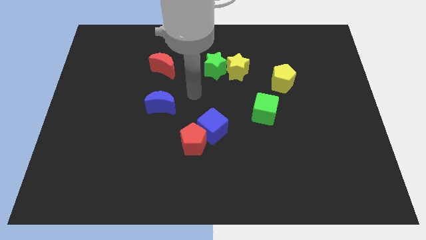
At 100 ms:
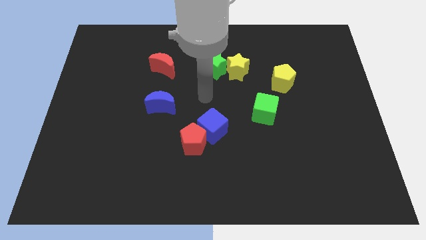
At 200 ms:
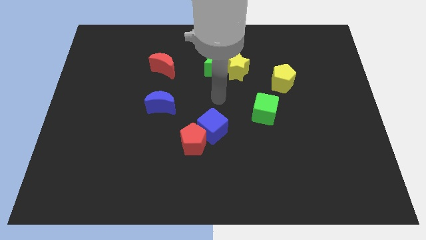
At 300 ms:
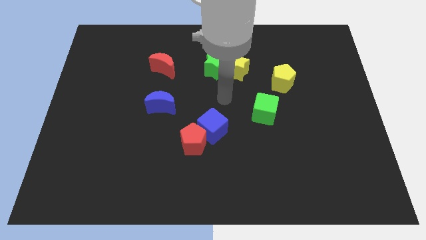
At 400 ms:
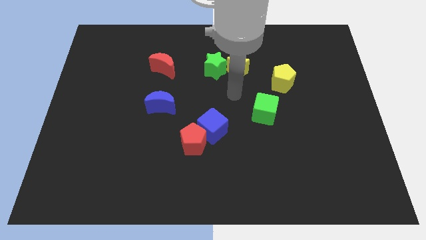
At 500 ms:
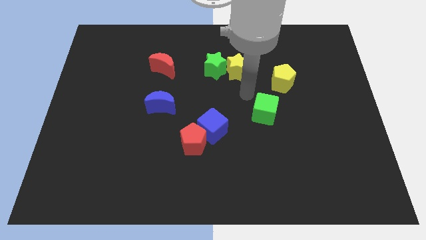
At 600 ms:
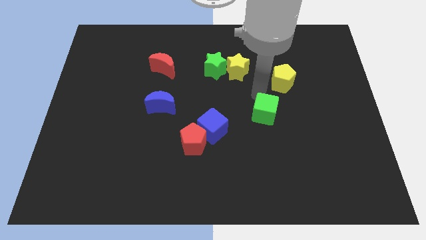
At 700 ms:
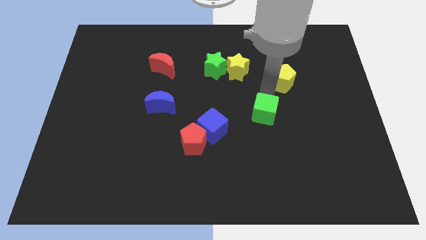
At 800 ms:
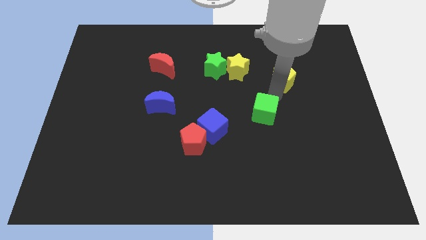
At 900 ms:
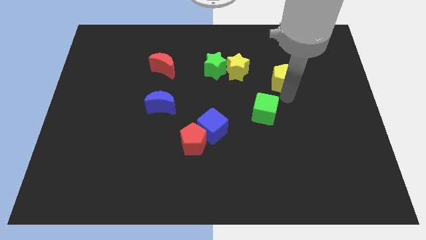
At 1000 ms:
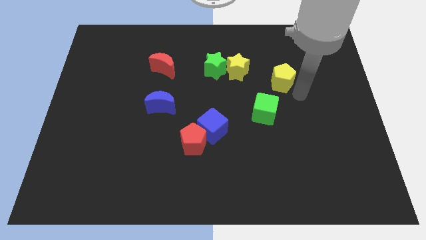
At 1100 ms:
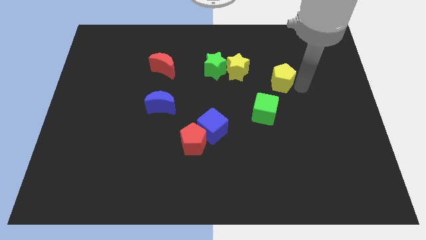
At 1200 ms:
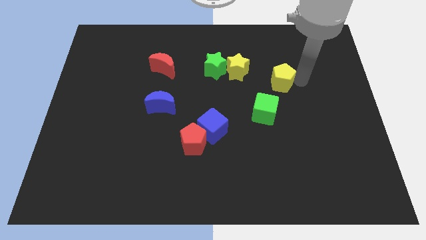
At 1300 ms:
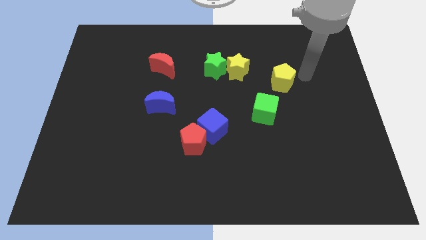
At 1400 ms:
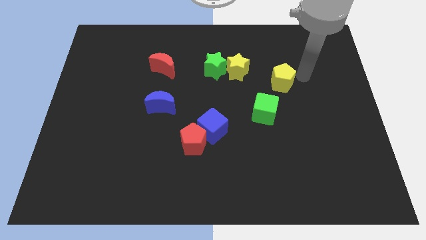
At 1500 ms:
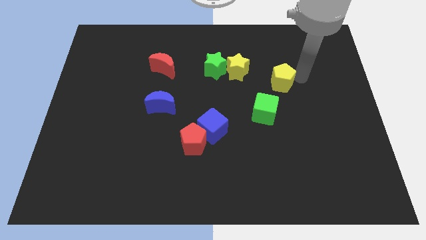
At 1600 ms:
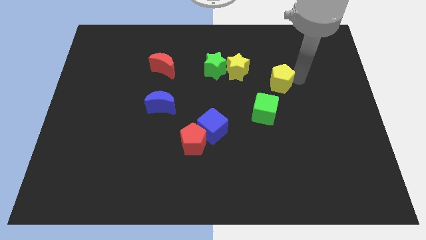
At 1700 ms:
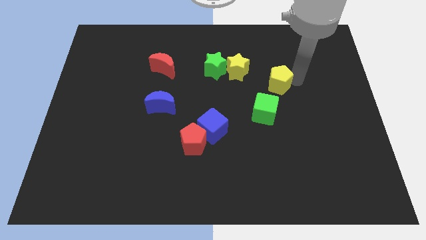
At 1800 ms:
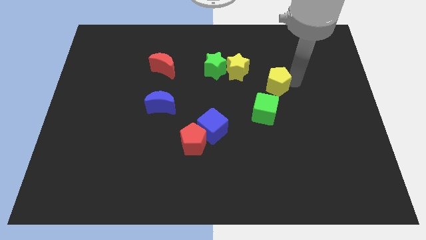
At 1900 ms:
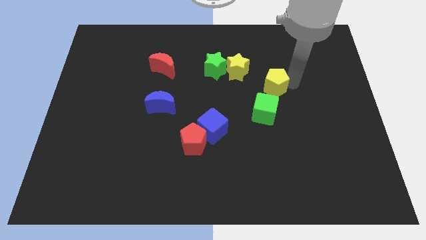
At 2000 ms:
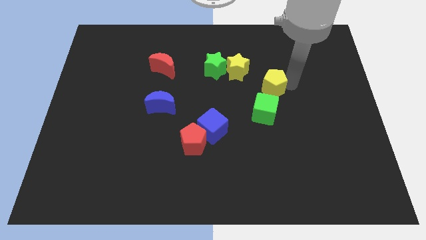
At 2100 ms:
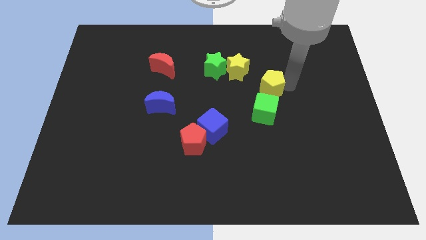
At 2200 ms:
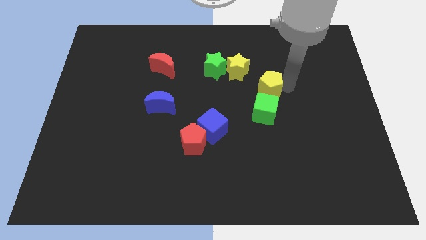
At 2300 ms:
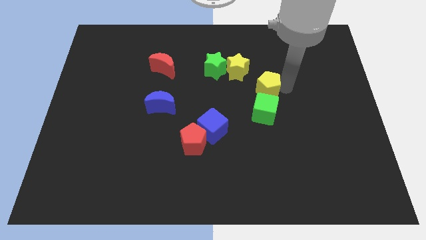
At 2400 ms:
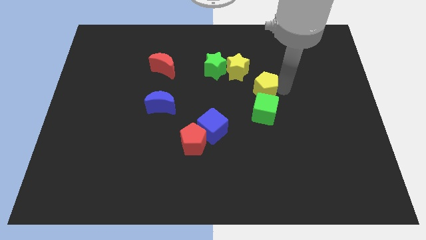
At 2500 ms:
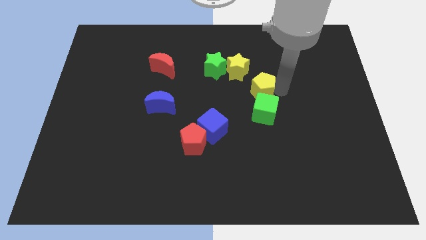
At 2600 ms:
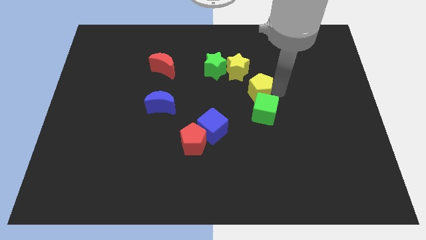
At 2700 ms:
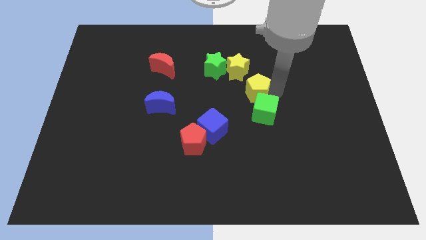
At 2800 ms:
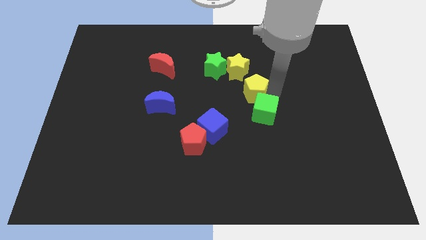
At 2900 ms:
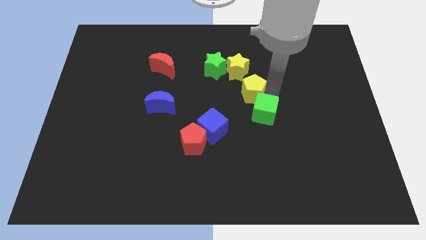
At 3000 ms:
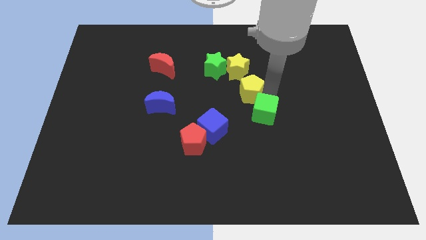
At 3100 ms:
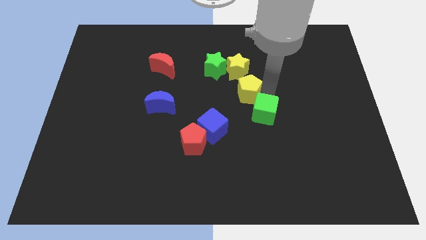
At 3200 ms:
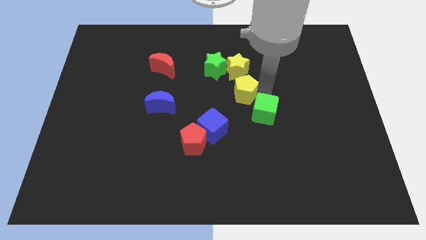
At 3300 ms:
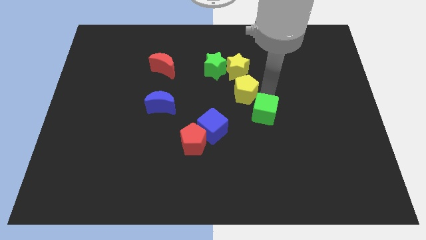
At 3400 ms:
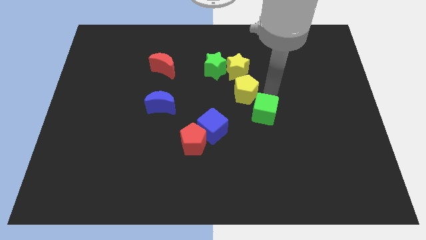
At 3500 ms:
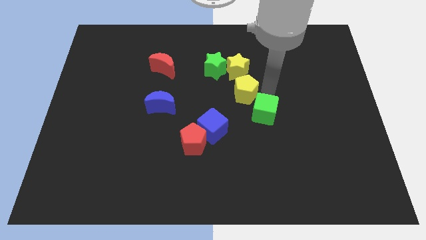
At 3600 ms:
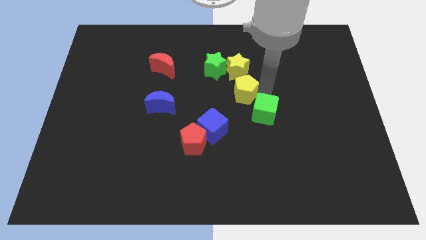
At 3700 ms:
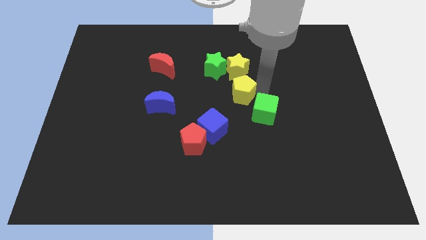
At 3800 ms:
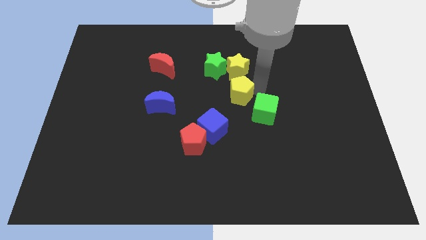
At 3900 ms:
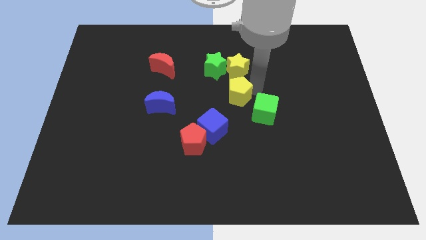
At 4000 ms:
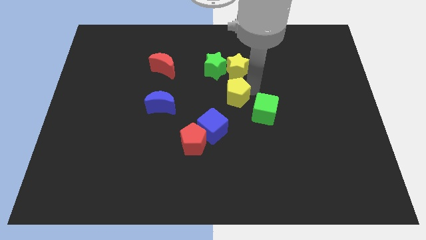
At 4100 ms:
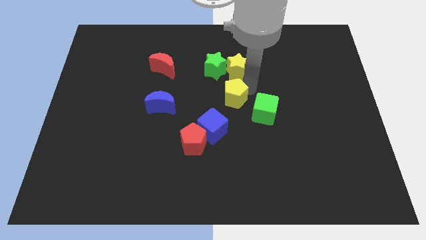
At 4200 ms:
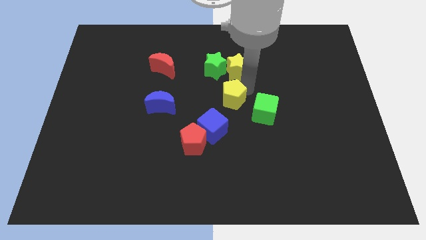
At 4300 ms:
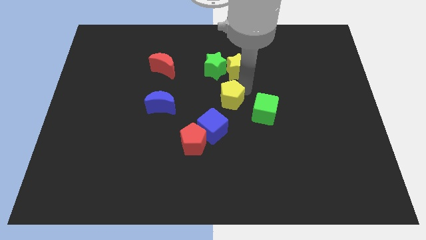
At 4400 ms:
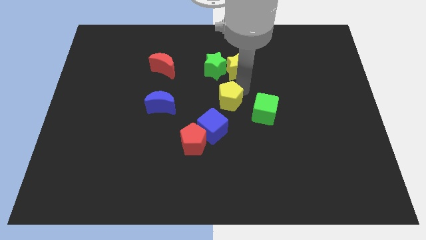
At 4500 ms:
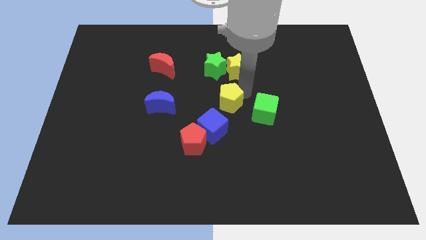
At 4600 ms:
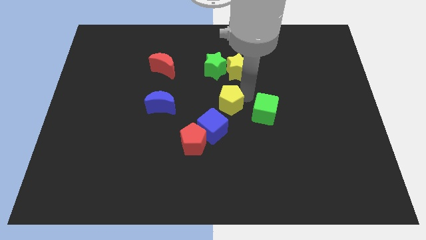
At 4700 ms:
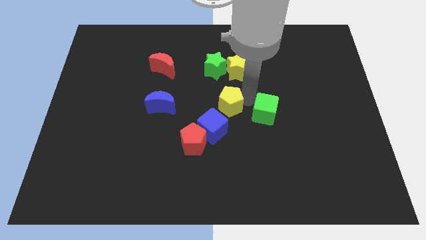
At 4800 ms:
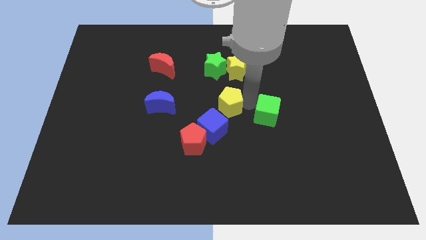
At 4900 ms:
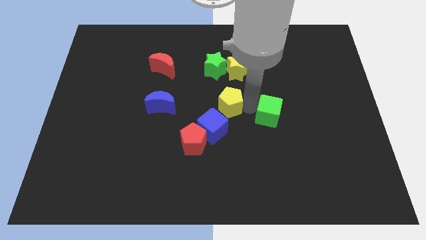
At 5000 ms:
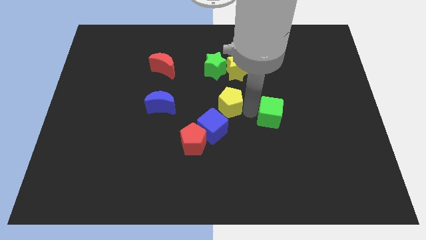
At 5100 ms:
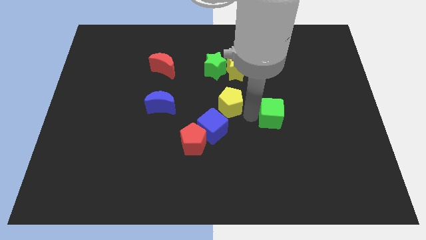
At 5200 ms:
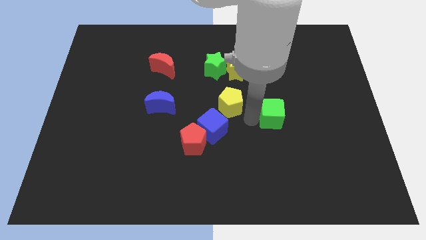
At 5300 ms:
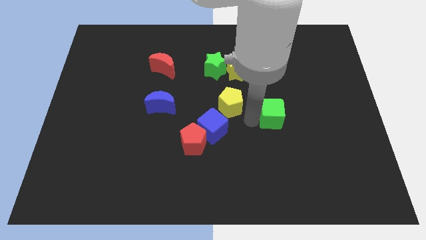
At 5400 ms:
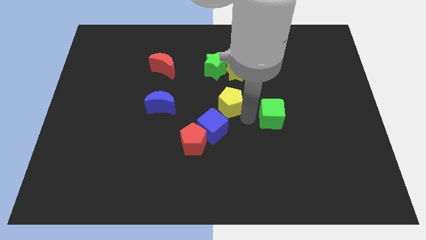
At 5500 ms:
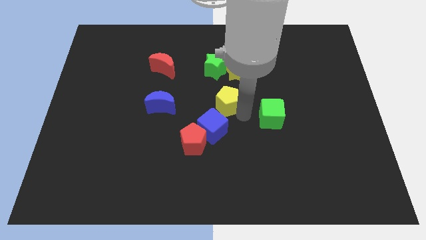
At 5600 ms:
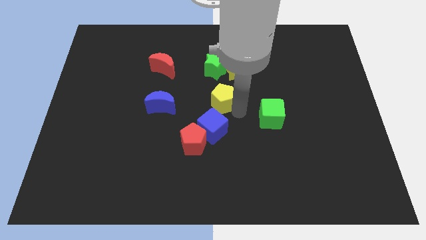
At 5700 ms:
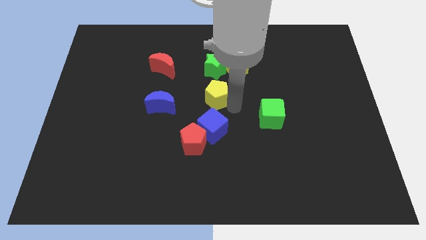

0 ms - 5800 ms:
push the yellow pentagon to the top of the red pentagon

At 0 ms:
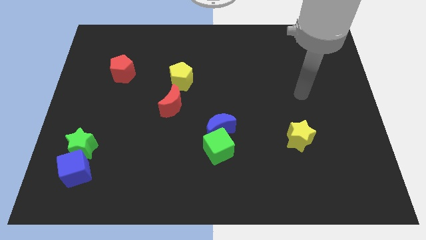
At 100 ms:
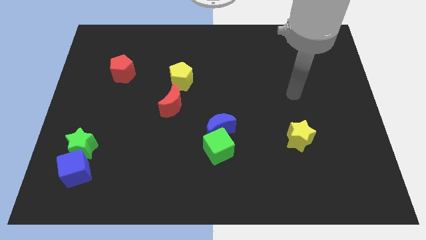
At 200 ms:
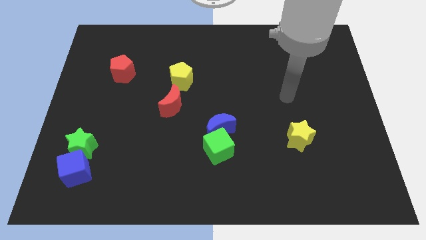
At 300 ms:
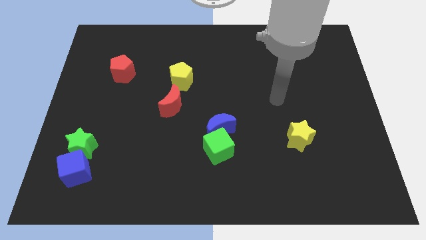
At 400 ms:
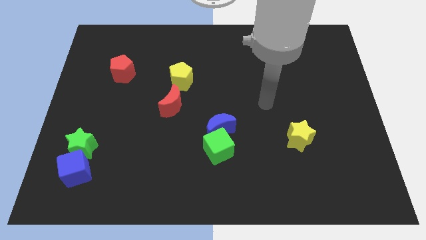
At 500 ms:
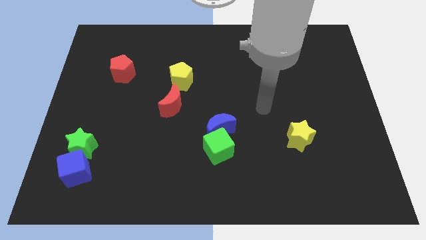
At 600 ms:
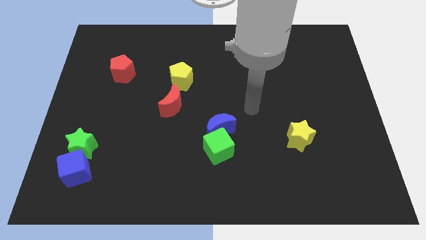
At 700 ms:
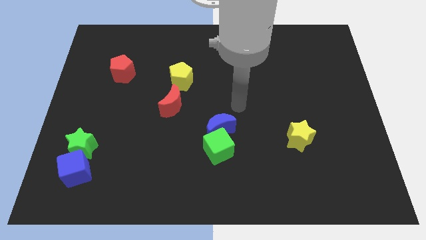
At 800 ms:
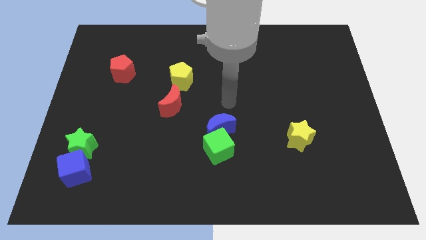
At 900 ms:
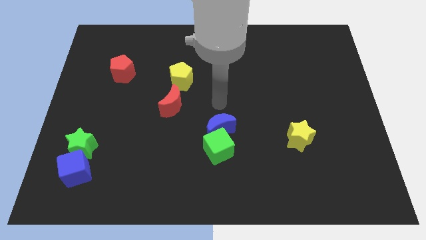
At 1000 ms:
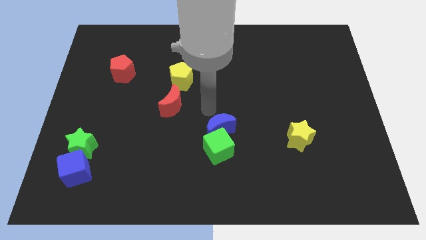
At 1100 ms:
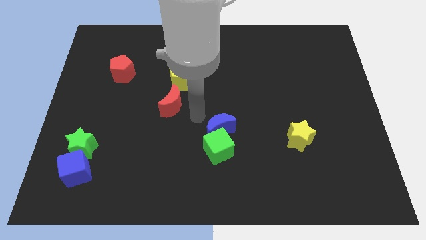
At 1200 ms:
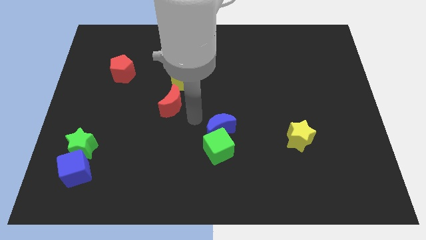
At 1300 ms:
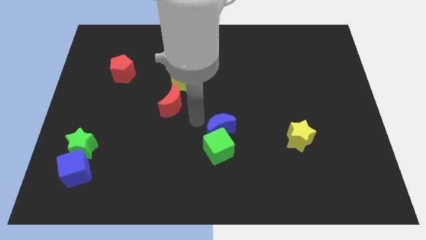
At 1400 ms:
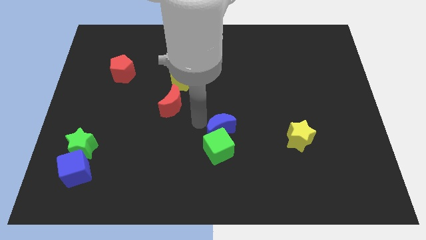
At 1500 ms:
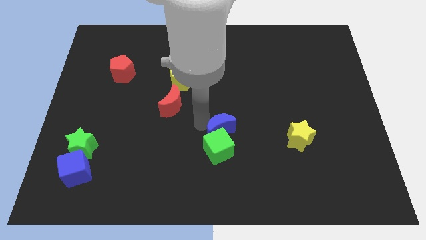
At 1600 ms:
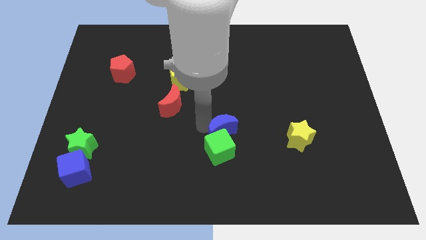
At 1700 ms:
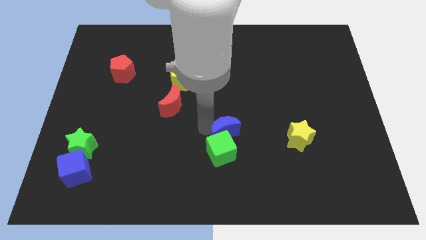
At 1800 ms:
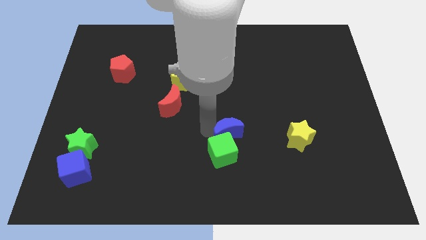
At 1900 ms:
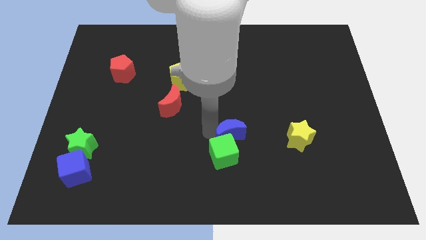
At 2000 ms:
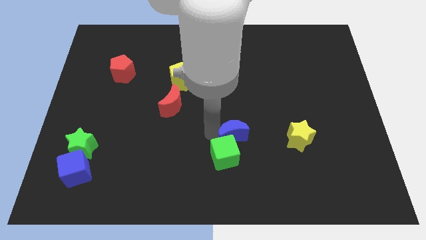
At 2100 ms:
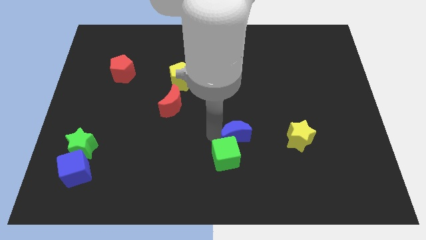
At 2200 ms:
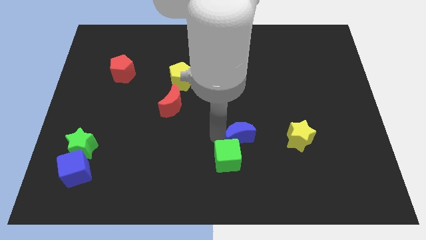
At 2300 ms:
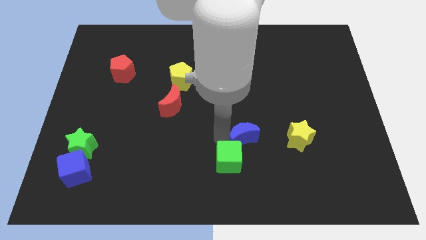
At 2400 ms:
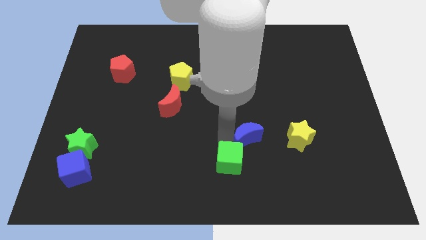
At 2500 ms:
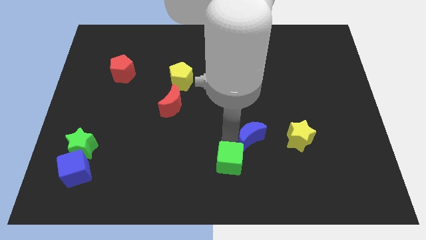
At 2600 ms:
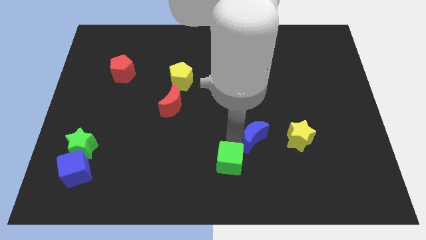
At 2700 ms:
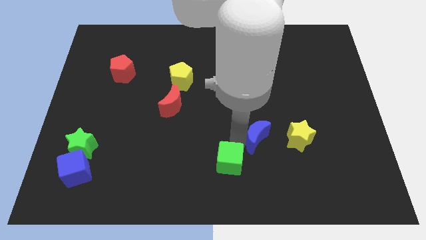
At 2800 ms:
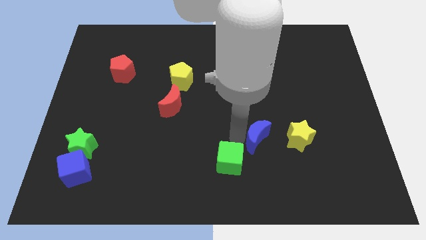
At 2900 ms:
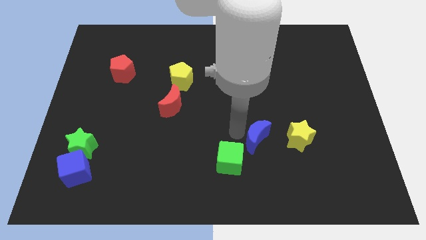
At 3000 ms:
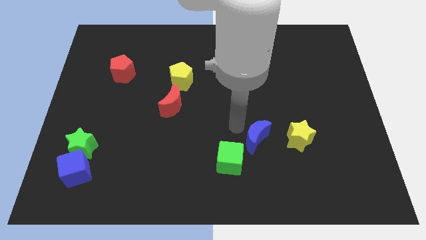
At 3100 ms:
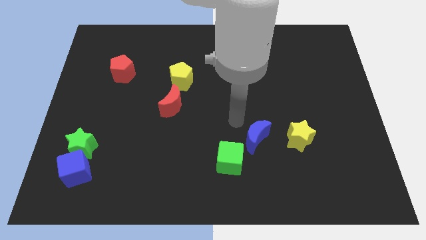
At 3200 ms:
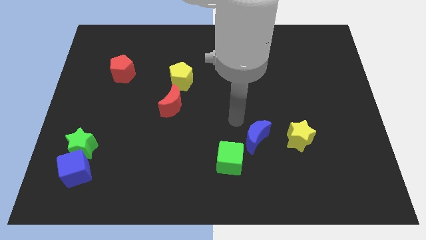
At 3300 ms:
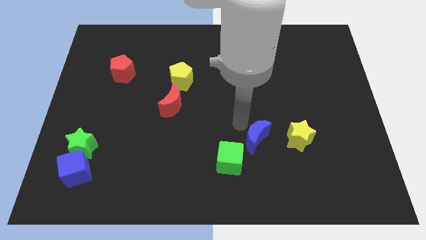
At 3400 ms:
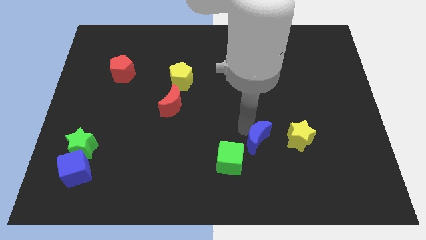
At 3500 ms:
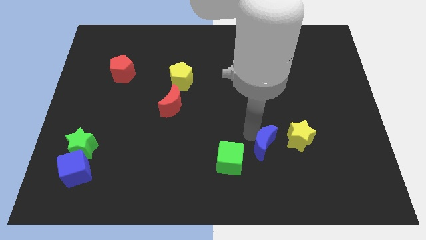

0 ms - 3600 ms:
move the blue moon to the right side of the green cube
